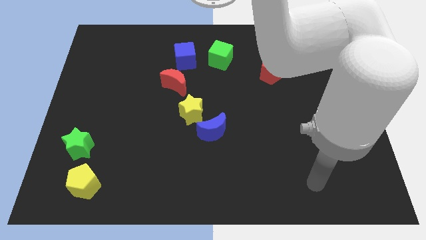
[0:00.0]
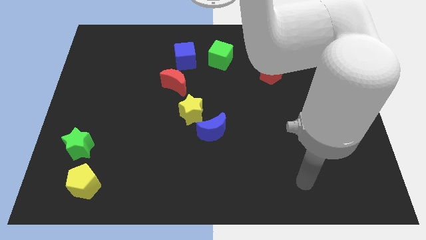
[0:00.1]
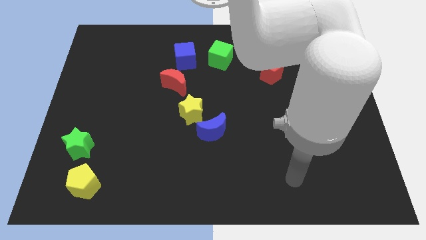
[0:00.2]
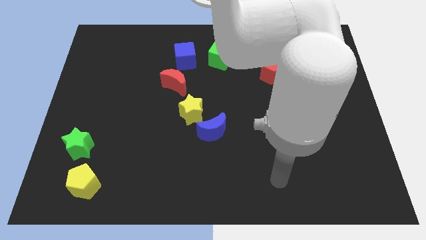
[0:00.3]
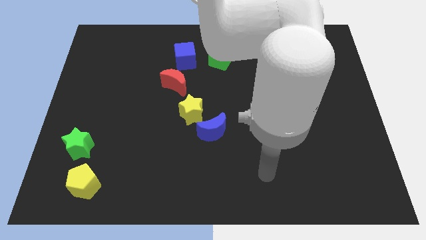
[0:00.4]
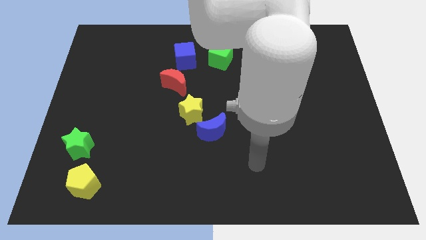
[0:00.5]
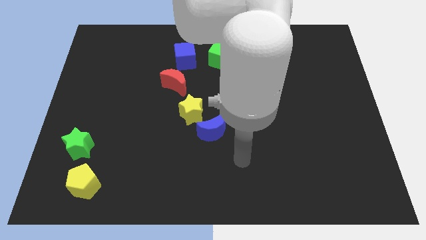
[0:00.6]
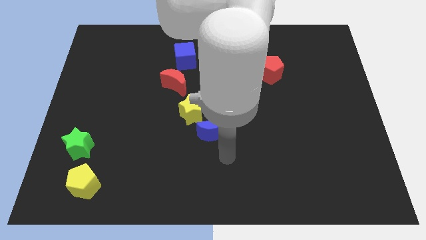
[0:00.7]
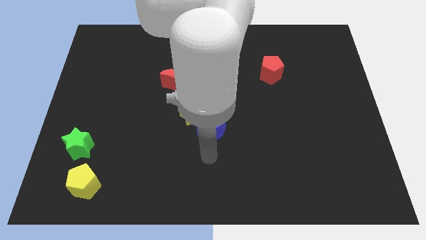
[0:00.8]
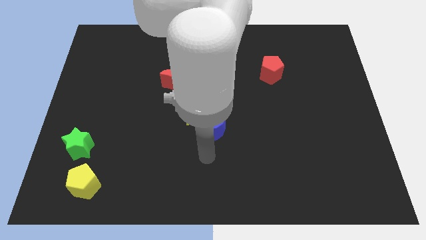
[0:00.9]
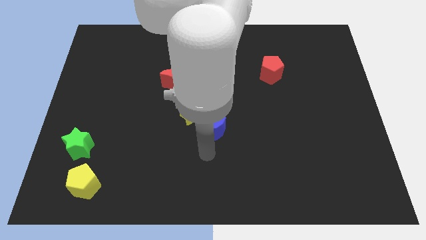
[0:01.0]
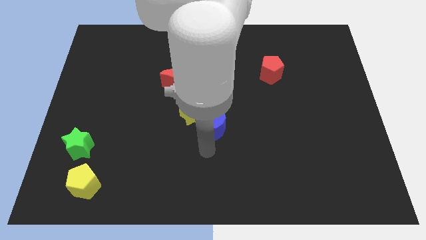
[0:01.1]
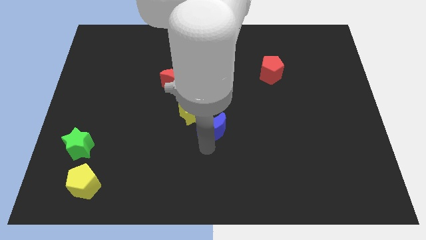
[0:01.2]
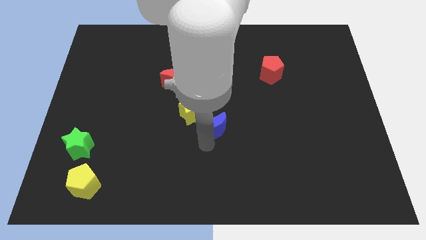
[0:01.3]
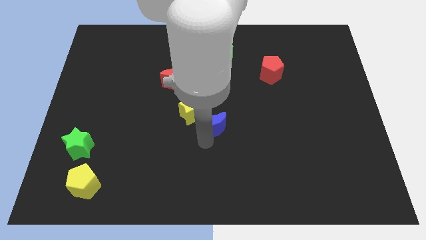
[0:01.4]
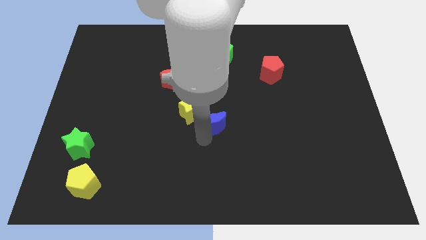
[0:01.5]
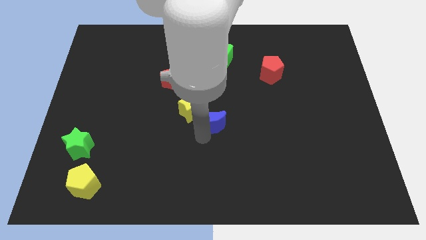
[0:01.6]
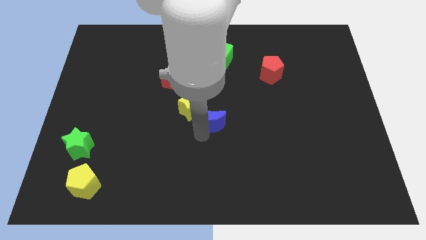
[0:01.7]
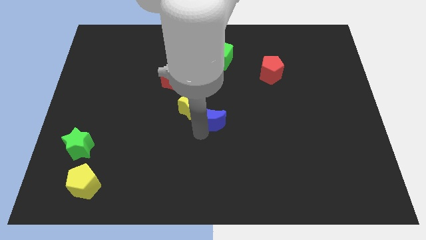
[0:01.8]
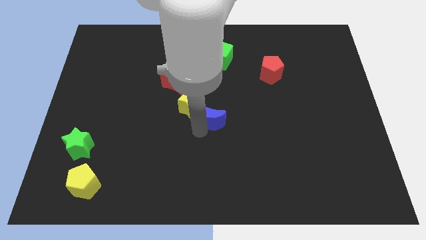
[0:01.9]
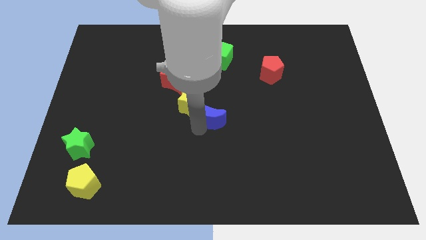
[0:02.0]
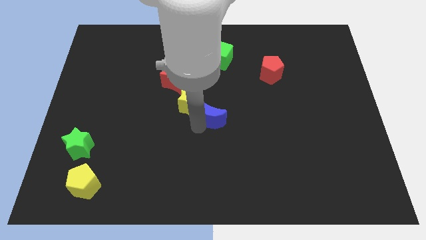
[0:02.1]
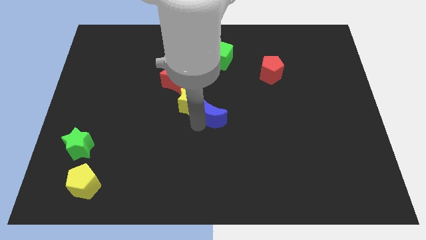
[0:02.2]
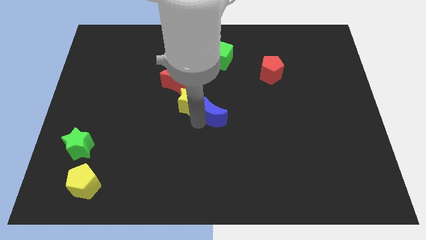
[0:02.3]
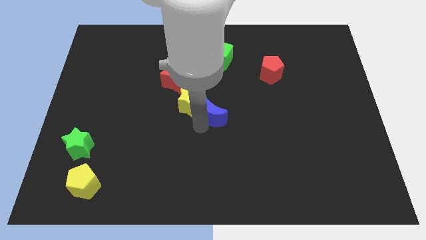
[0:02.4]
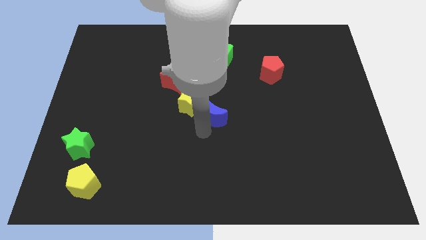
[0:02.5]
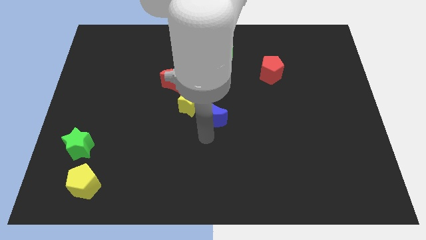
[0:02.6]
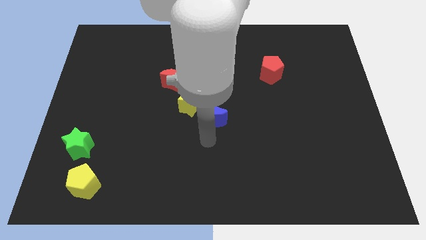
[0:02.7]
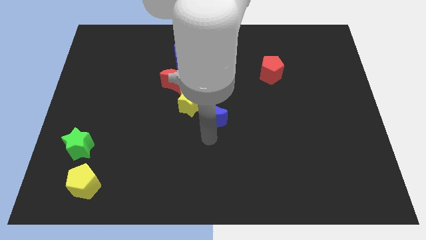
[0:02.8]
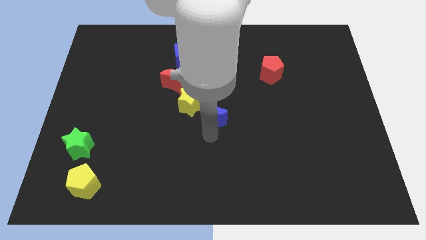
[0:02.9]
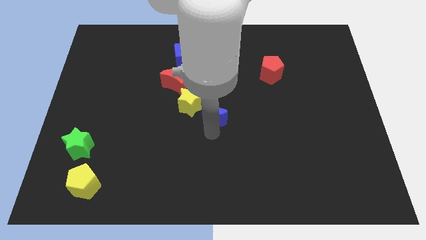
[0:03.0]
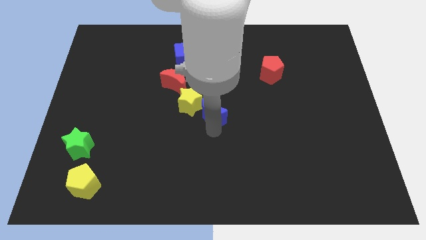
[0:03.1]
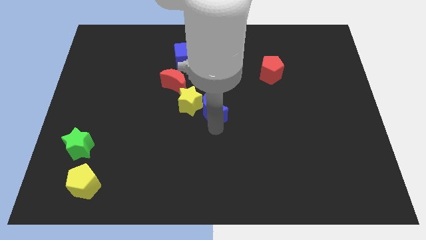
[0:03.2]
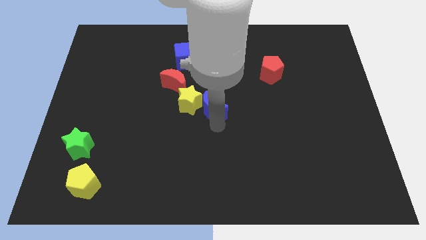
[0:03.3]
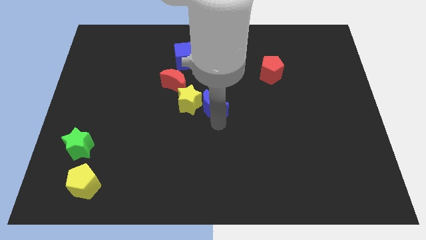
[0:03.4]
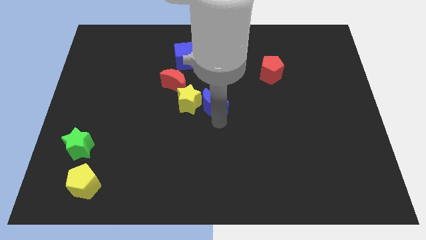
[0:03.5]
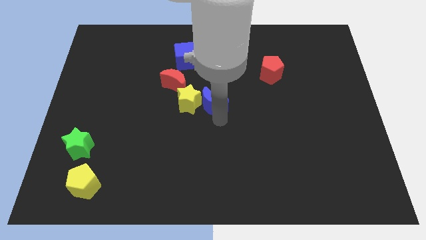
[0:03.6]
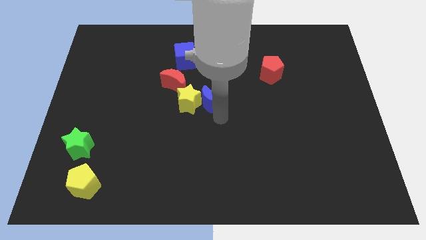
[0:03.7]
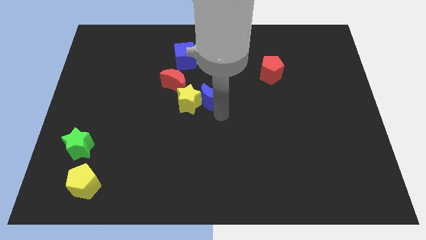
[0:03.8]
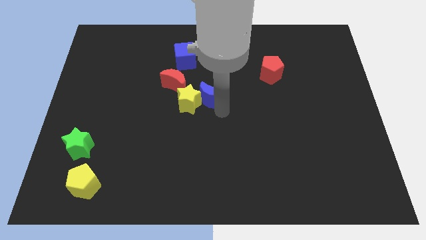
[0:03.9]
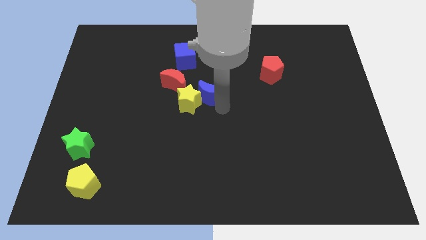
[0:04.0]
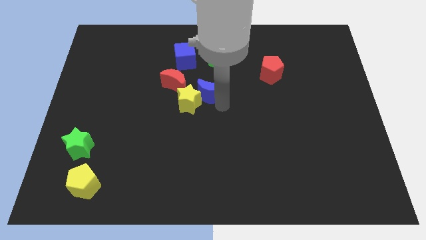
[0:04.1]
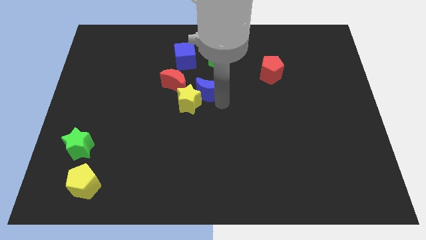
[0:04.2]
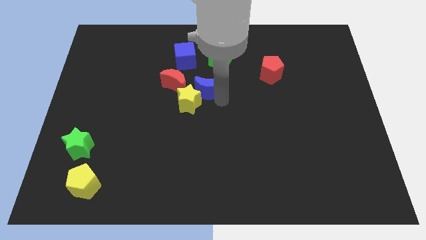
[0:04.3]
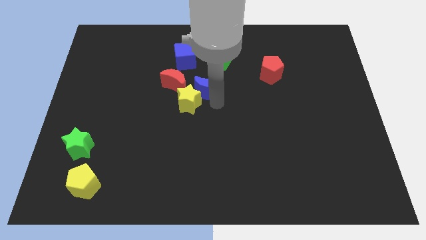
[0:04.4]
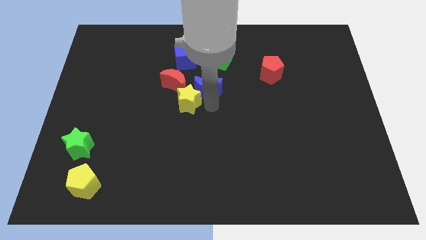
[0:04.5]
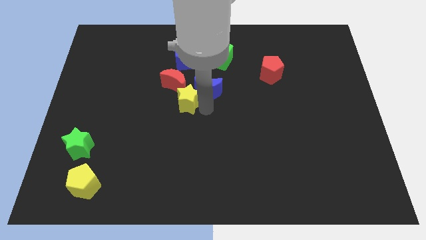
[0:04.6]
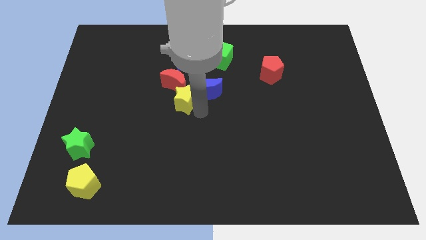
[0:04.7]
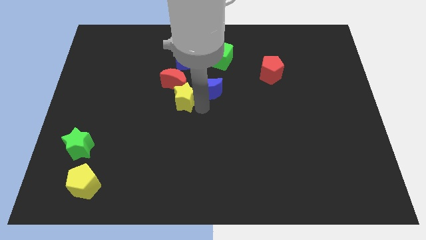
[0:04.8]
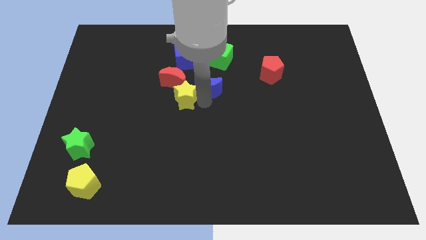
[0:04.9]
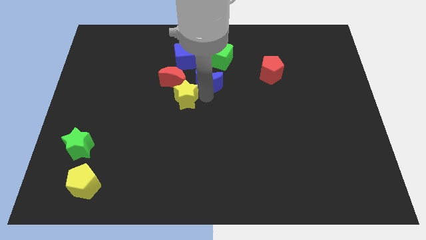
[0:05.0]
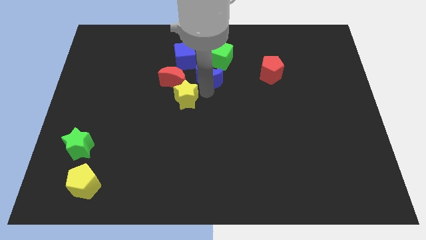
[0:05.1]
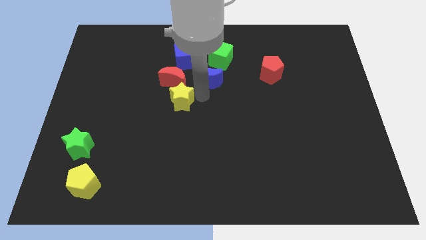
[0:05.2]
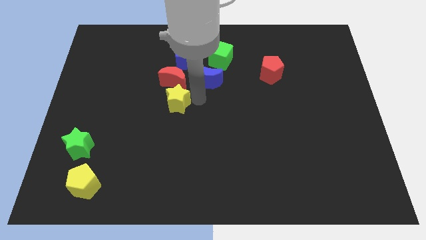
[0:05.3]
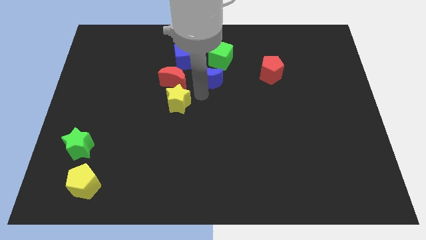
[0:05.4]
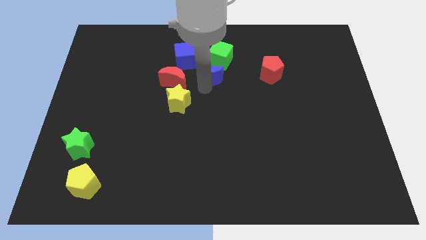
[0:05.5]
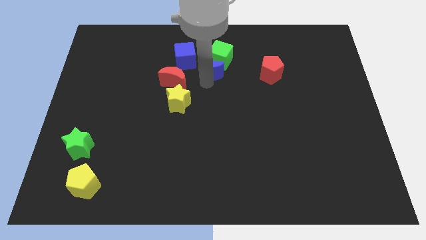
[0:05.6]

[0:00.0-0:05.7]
slide the blue moon to the green cube

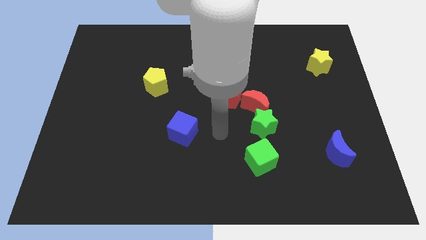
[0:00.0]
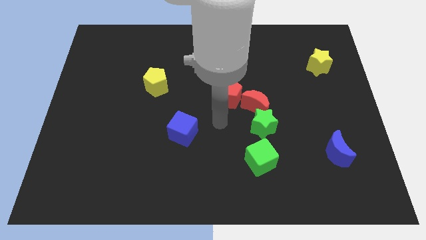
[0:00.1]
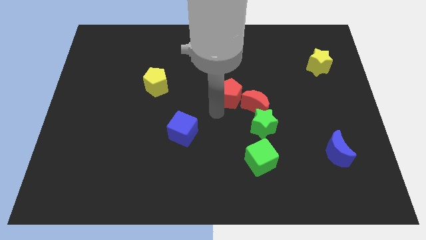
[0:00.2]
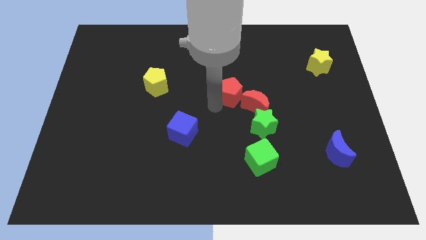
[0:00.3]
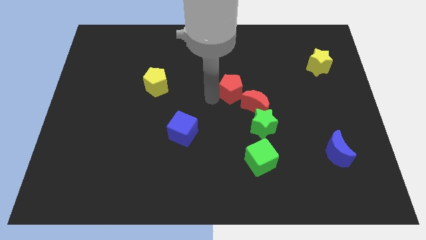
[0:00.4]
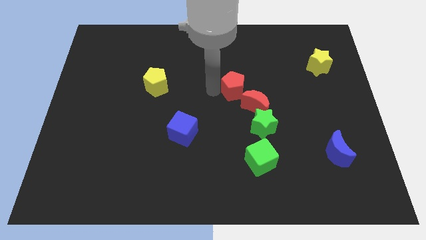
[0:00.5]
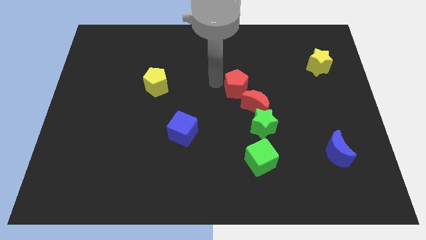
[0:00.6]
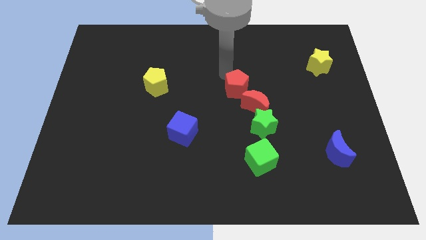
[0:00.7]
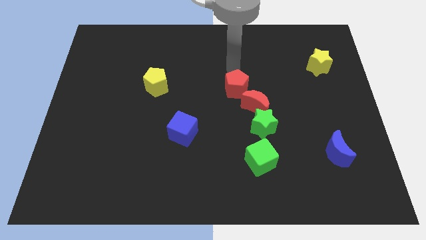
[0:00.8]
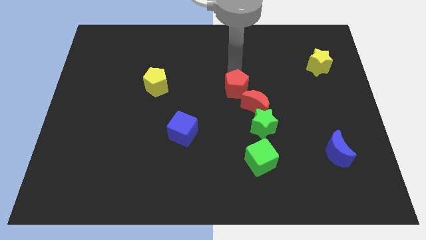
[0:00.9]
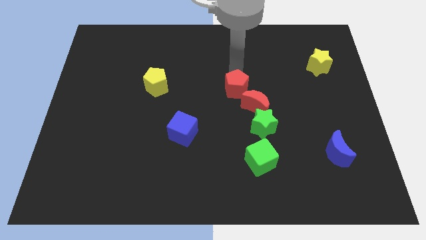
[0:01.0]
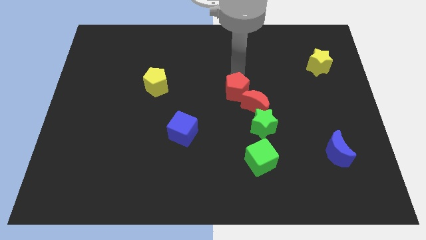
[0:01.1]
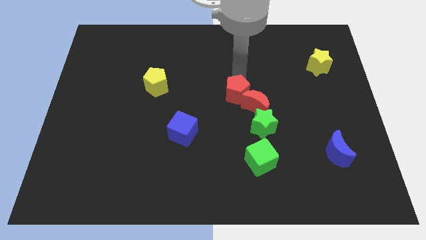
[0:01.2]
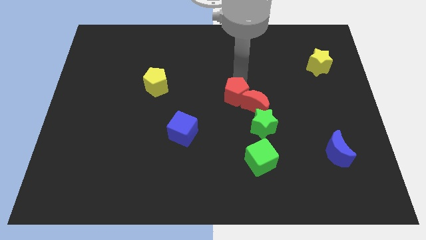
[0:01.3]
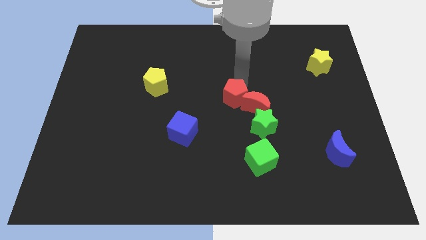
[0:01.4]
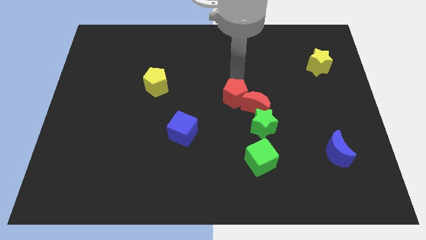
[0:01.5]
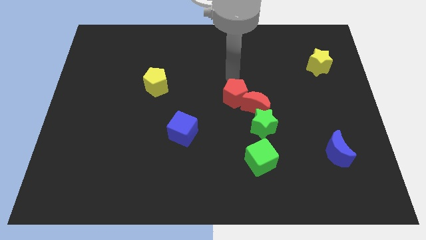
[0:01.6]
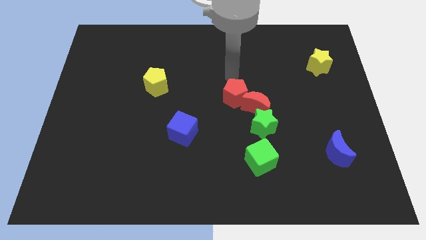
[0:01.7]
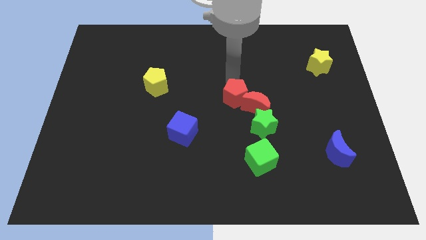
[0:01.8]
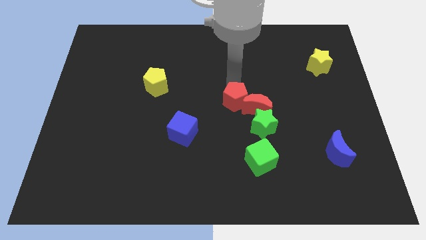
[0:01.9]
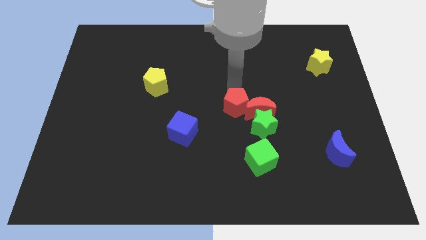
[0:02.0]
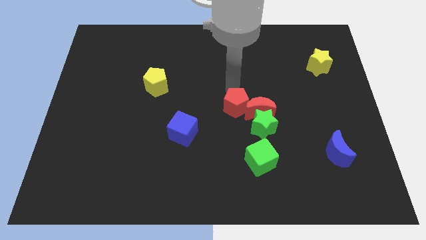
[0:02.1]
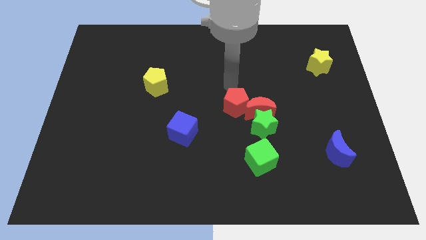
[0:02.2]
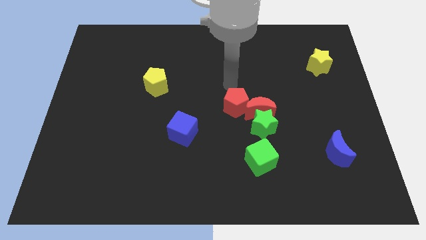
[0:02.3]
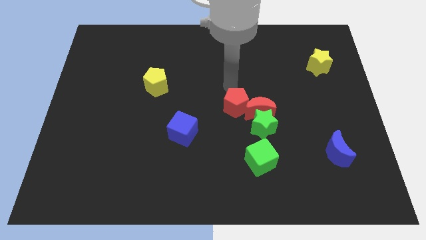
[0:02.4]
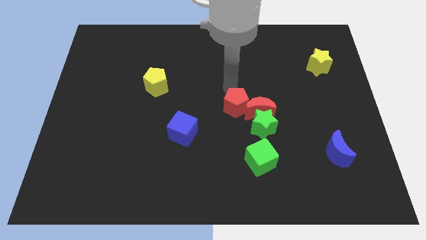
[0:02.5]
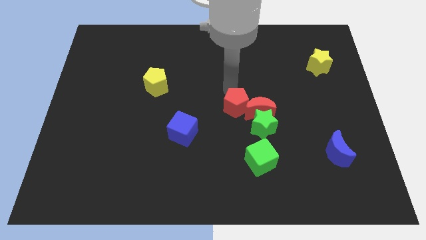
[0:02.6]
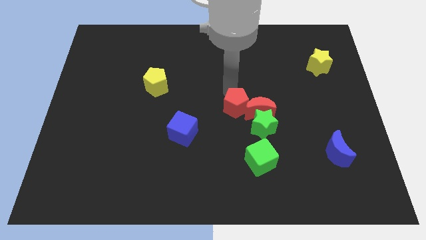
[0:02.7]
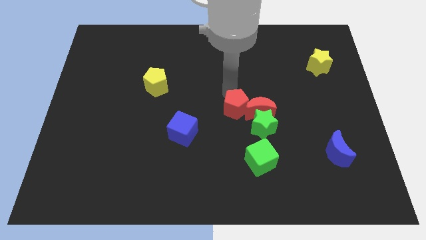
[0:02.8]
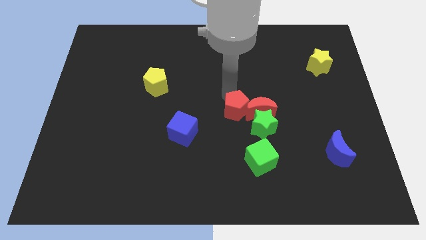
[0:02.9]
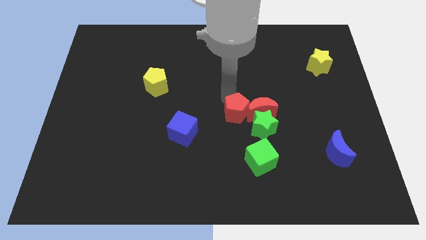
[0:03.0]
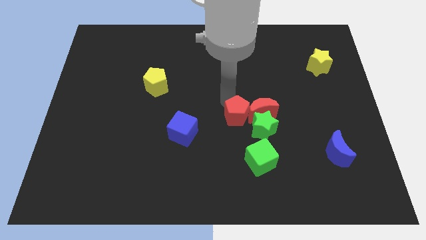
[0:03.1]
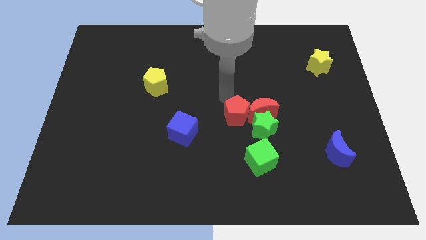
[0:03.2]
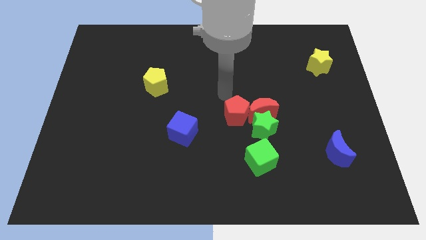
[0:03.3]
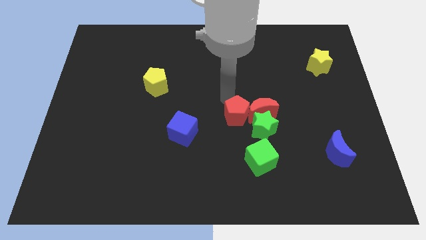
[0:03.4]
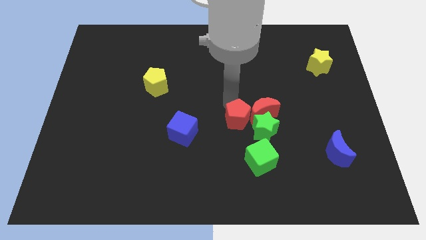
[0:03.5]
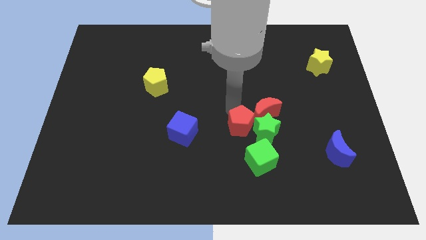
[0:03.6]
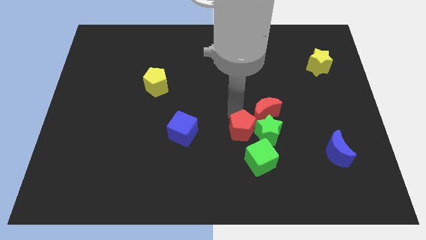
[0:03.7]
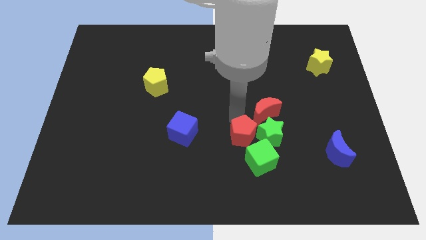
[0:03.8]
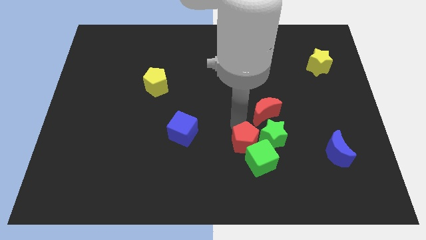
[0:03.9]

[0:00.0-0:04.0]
move the red pentagon close to the green cube
